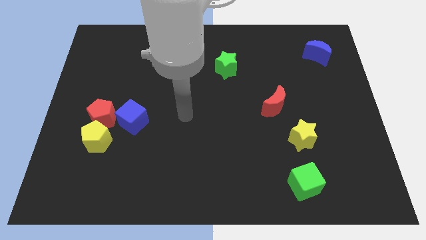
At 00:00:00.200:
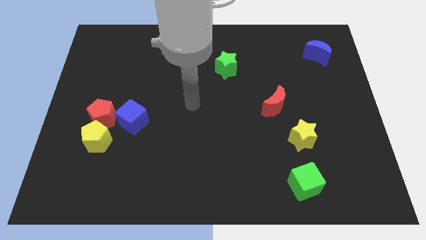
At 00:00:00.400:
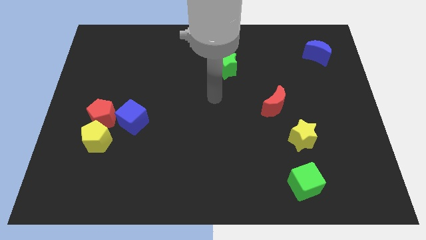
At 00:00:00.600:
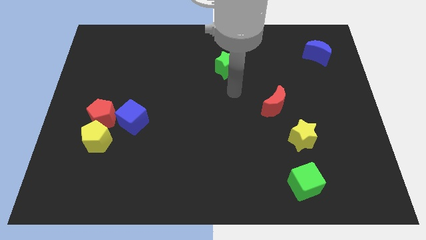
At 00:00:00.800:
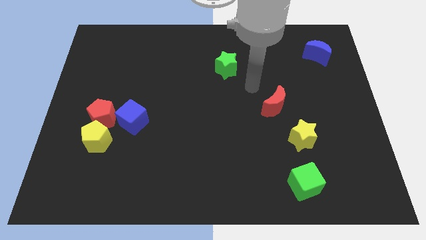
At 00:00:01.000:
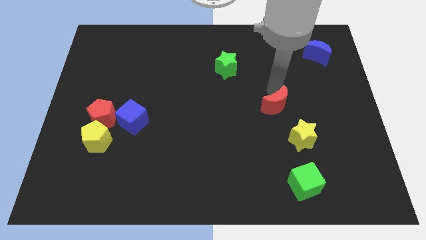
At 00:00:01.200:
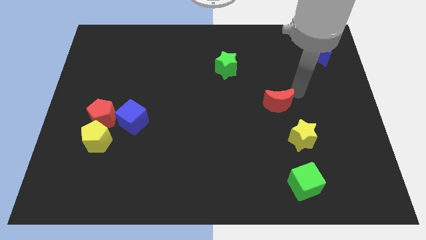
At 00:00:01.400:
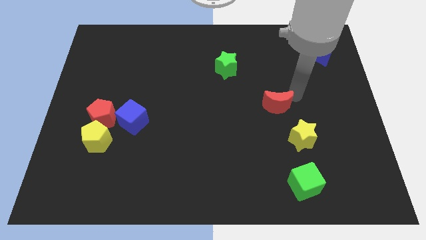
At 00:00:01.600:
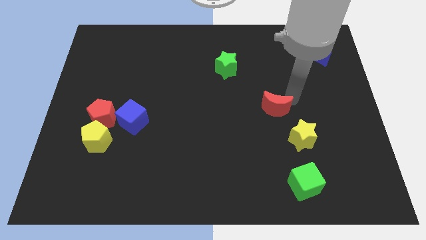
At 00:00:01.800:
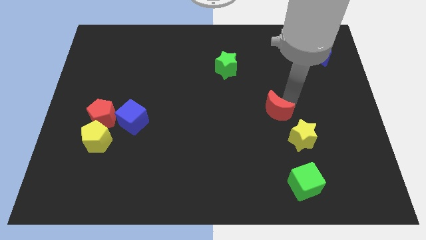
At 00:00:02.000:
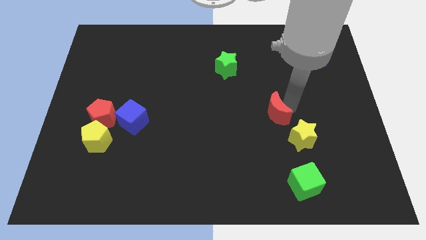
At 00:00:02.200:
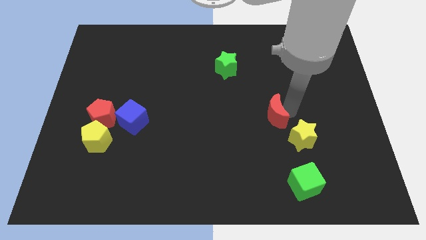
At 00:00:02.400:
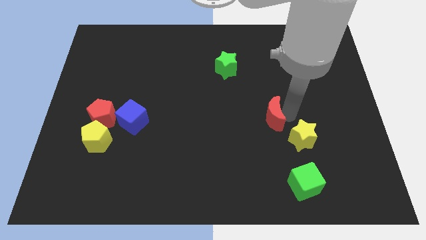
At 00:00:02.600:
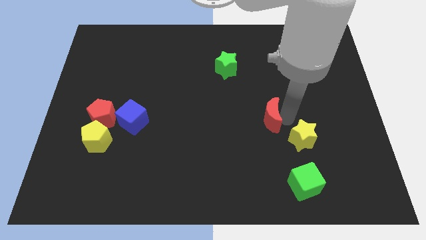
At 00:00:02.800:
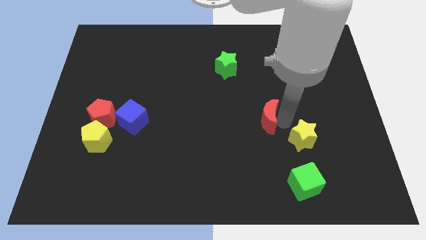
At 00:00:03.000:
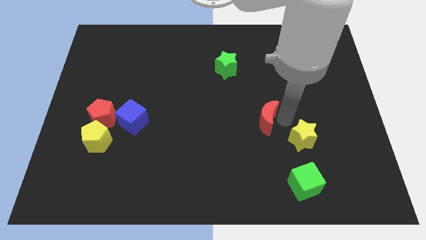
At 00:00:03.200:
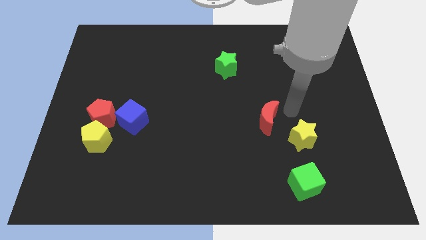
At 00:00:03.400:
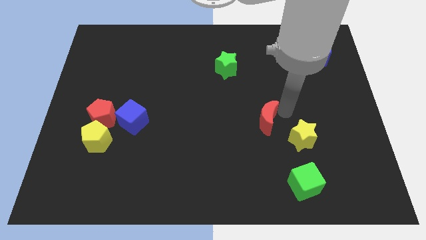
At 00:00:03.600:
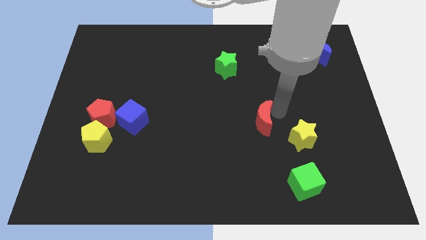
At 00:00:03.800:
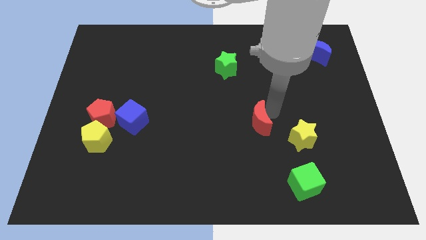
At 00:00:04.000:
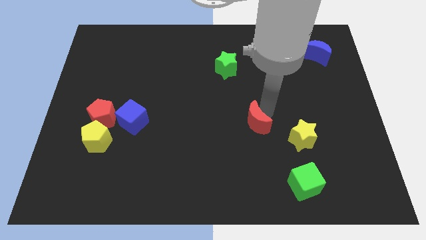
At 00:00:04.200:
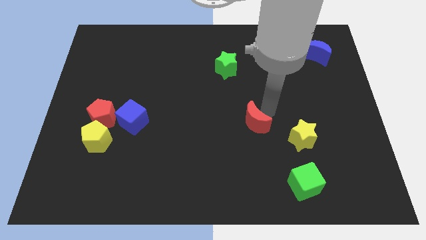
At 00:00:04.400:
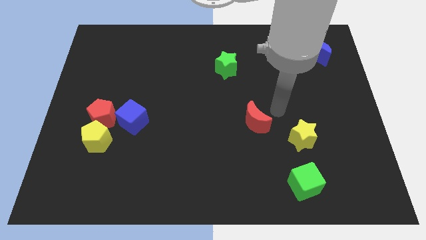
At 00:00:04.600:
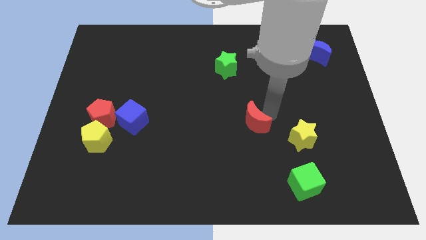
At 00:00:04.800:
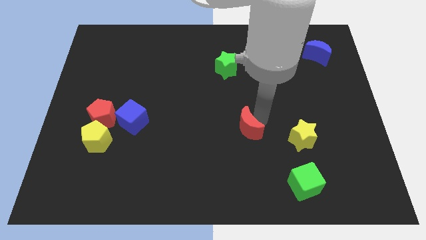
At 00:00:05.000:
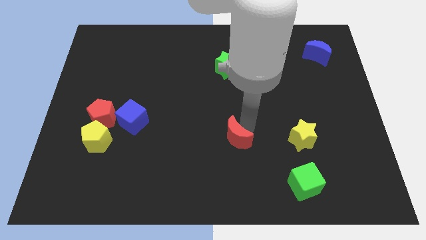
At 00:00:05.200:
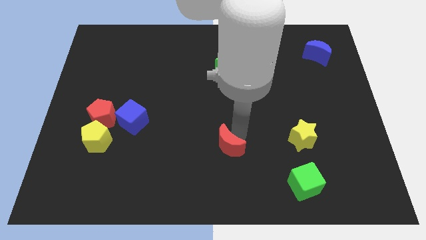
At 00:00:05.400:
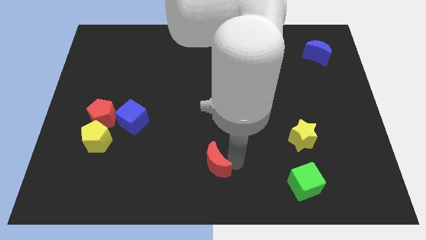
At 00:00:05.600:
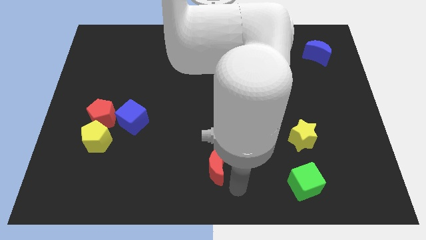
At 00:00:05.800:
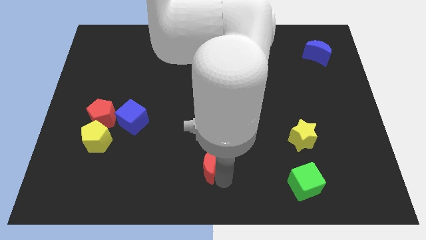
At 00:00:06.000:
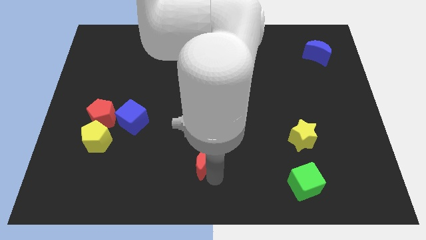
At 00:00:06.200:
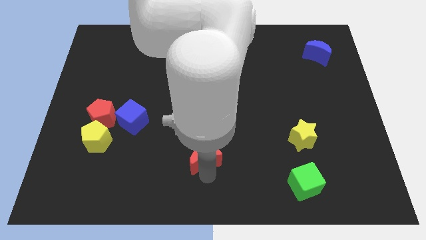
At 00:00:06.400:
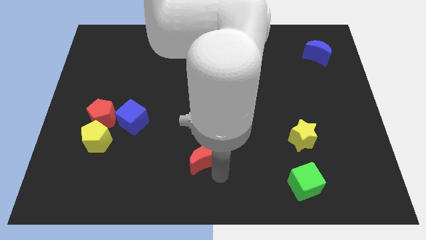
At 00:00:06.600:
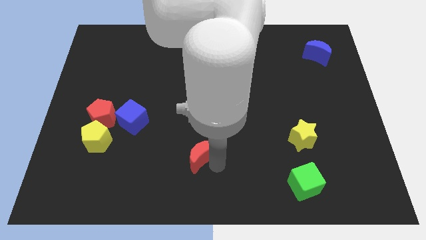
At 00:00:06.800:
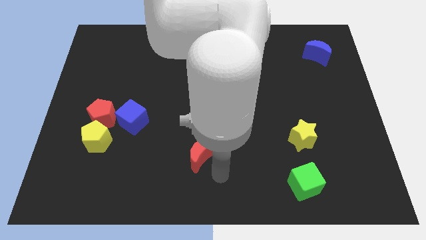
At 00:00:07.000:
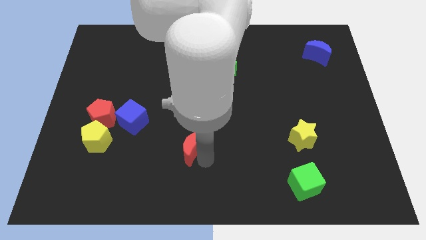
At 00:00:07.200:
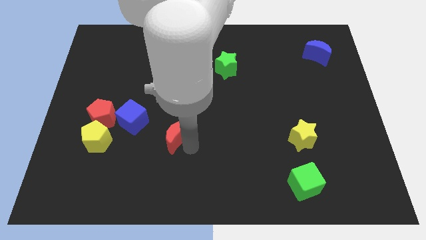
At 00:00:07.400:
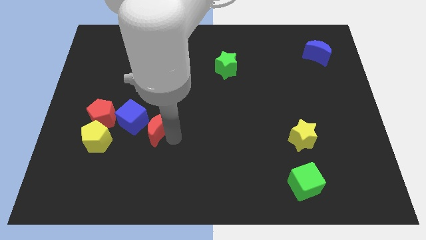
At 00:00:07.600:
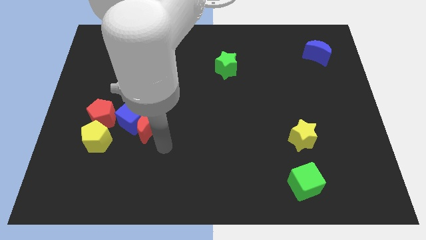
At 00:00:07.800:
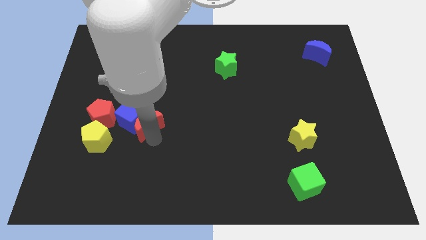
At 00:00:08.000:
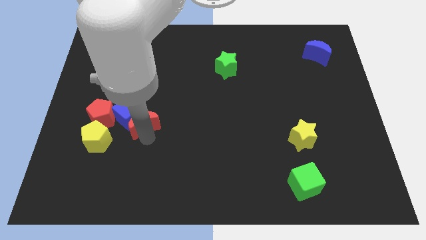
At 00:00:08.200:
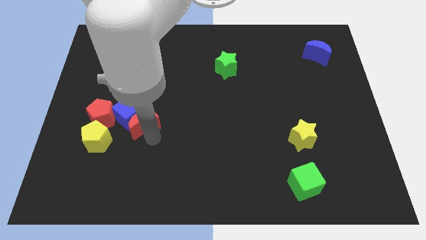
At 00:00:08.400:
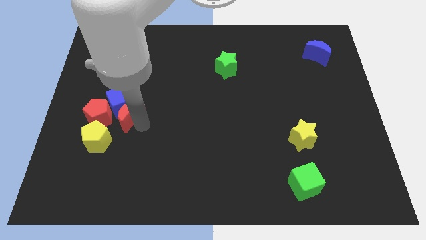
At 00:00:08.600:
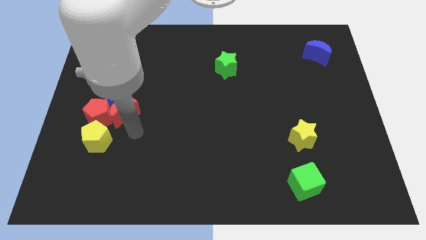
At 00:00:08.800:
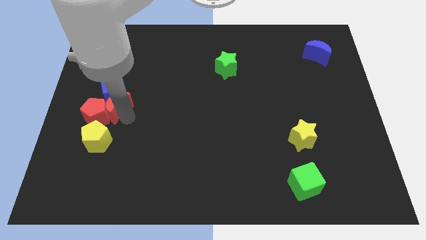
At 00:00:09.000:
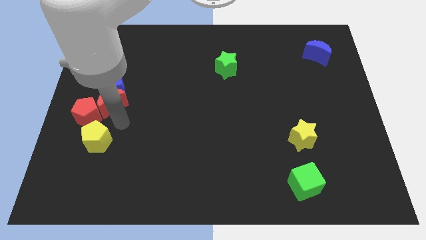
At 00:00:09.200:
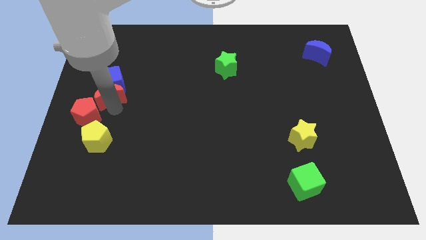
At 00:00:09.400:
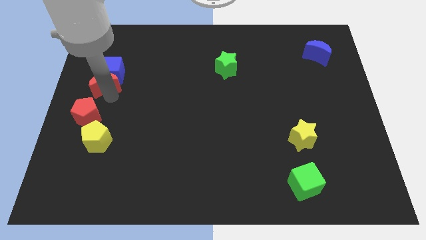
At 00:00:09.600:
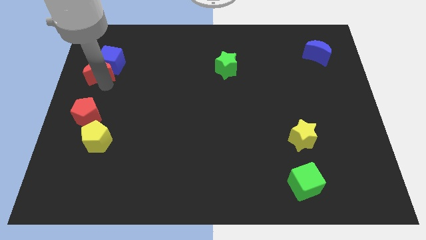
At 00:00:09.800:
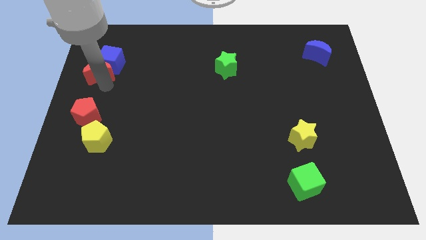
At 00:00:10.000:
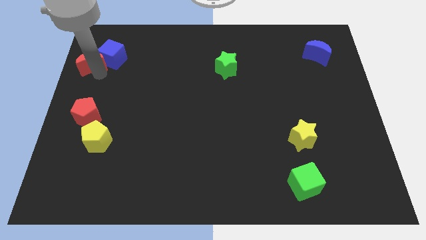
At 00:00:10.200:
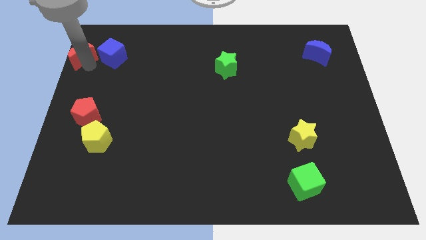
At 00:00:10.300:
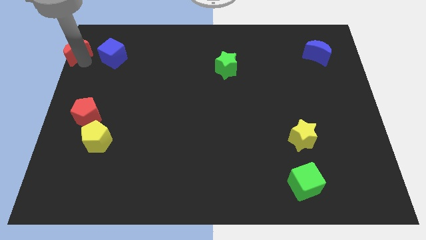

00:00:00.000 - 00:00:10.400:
put the red moon to the top left of the board

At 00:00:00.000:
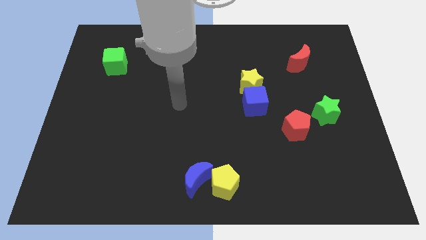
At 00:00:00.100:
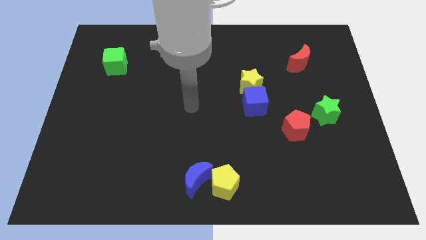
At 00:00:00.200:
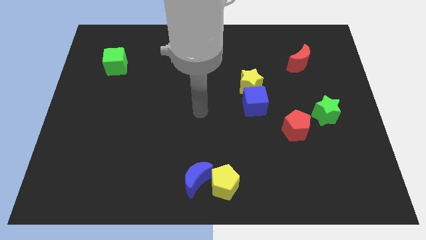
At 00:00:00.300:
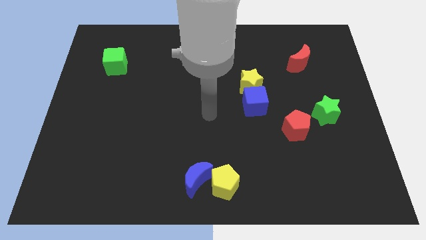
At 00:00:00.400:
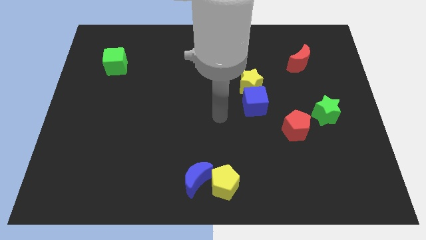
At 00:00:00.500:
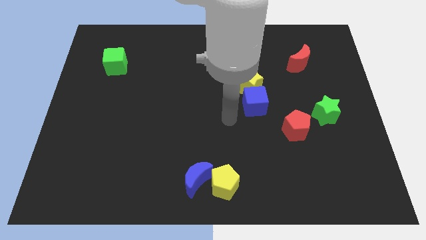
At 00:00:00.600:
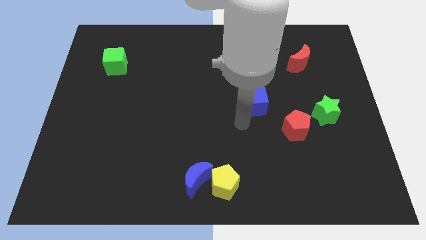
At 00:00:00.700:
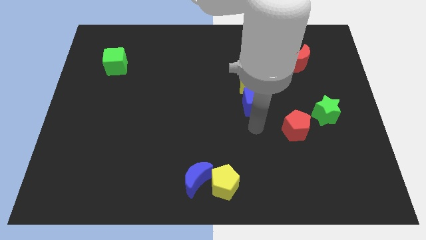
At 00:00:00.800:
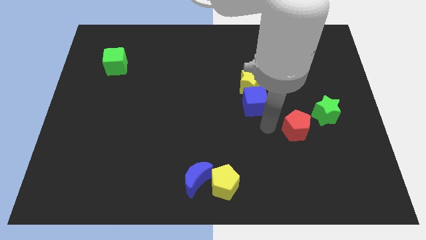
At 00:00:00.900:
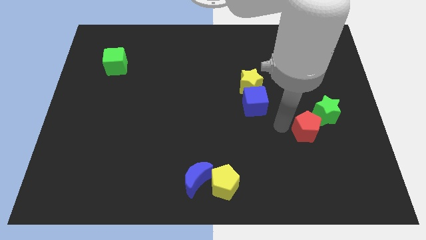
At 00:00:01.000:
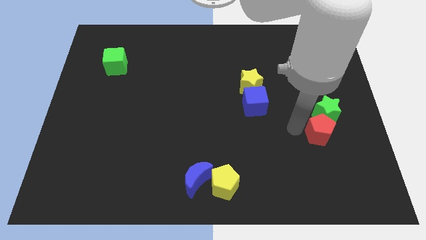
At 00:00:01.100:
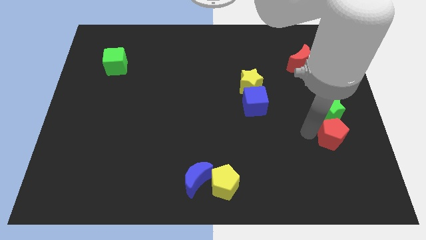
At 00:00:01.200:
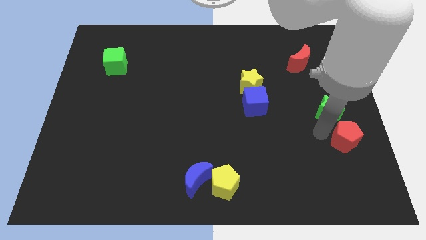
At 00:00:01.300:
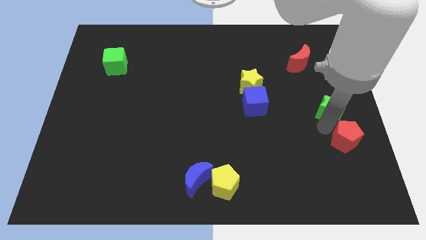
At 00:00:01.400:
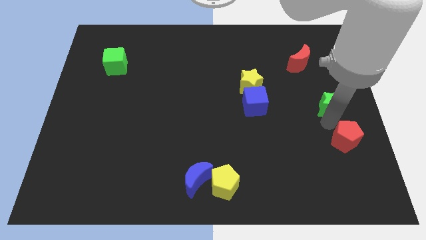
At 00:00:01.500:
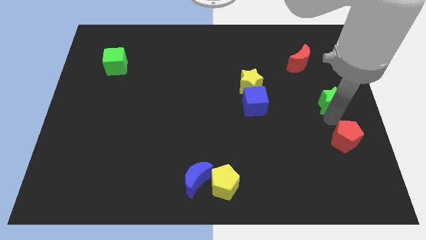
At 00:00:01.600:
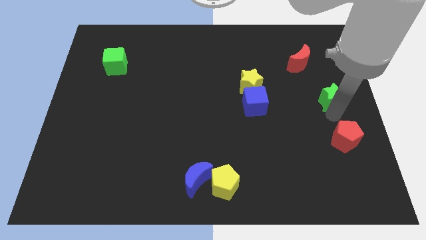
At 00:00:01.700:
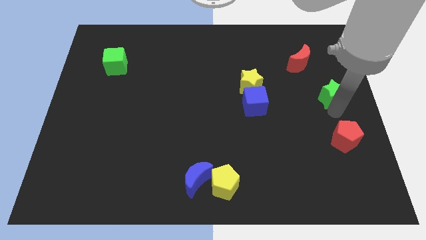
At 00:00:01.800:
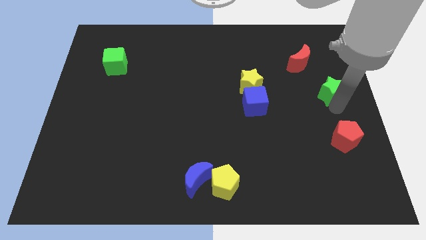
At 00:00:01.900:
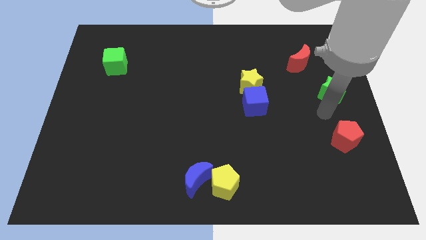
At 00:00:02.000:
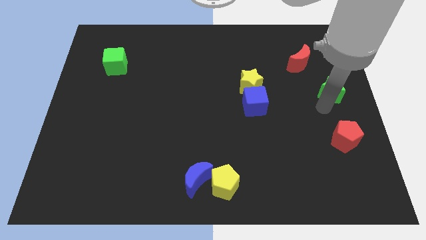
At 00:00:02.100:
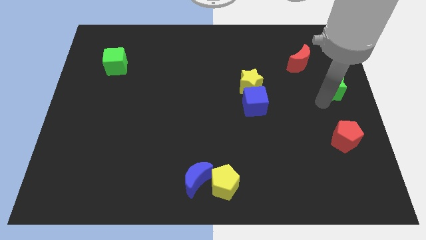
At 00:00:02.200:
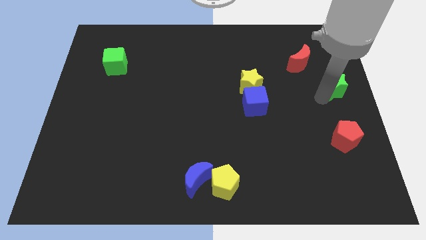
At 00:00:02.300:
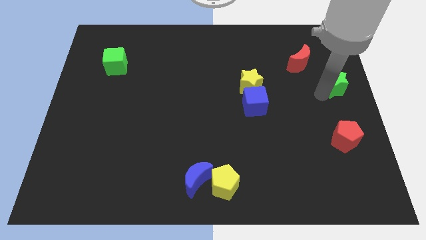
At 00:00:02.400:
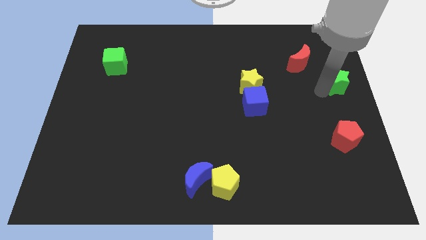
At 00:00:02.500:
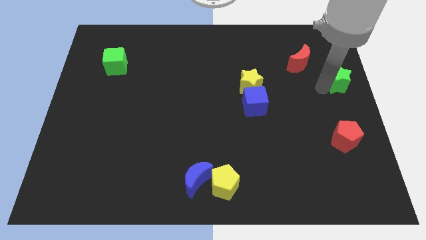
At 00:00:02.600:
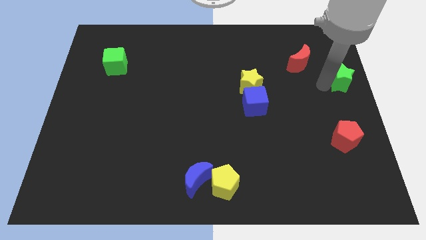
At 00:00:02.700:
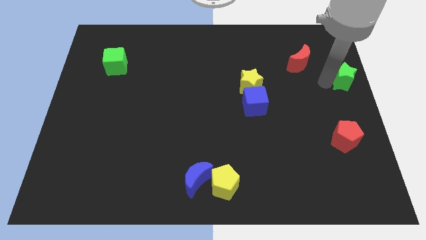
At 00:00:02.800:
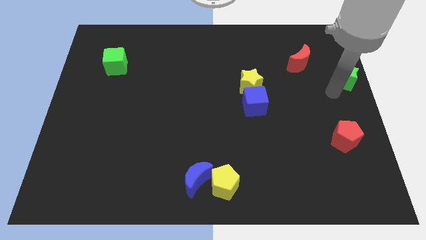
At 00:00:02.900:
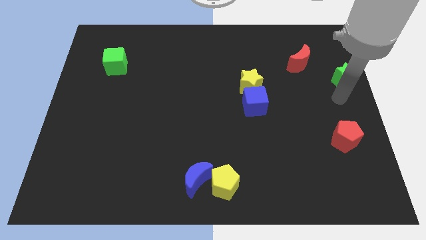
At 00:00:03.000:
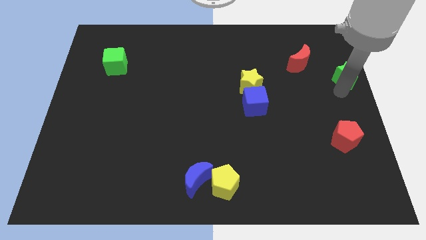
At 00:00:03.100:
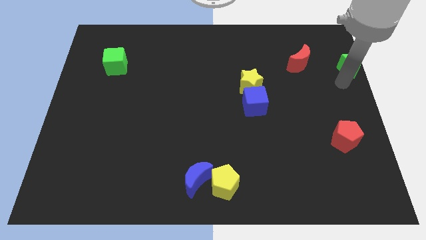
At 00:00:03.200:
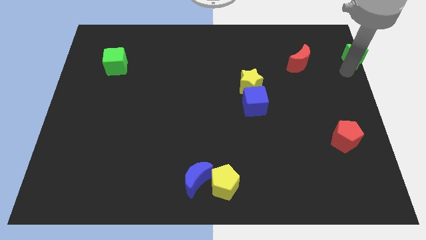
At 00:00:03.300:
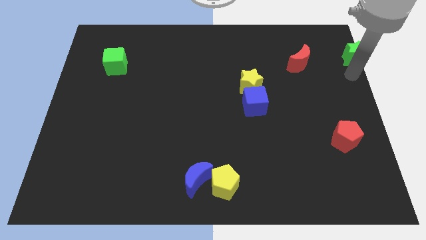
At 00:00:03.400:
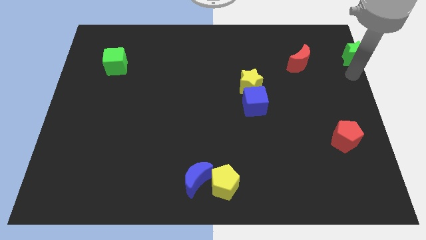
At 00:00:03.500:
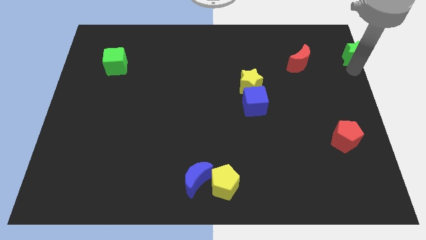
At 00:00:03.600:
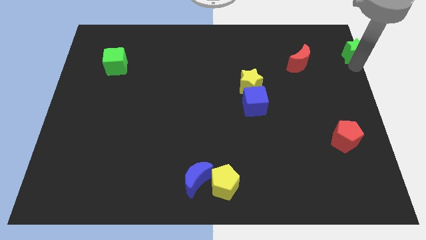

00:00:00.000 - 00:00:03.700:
move the green star to the upper right corner
